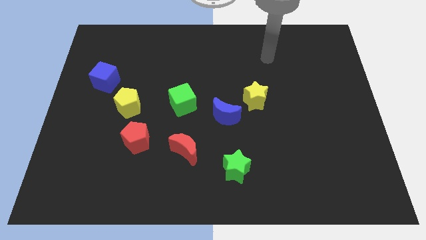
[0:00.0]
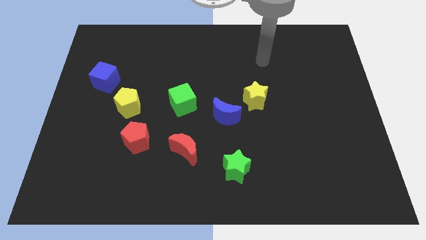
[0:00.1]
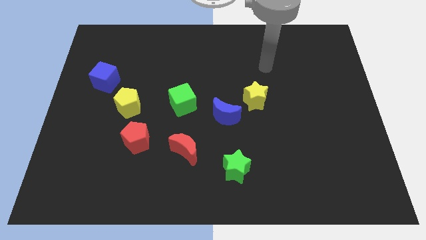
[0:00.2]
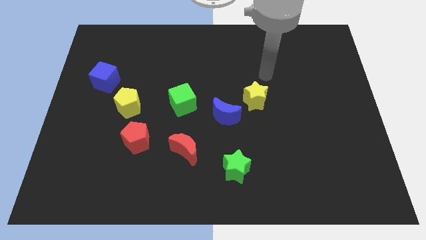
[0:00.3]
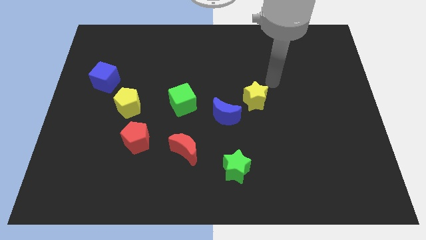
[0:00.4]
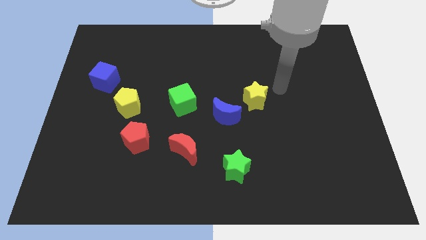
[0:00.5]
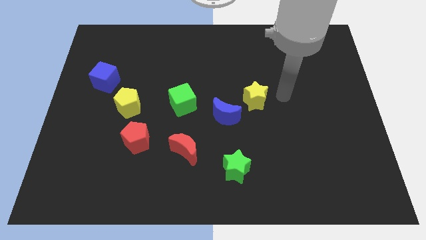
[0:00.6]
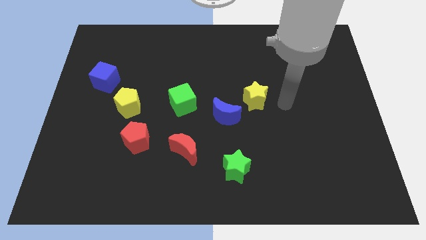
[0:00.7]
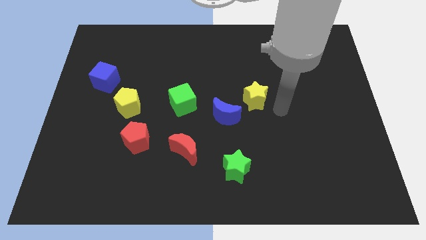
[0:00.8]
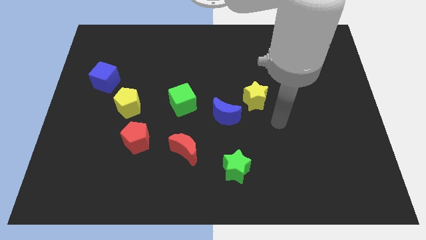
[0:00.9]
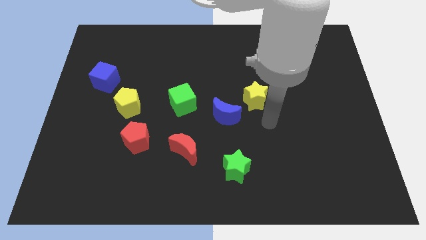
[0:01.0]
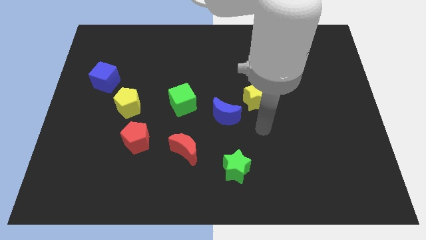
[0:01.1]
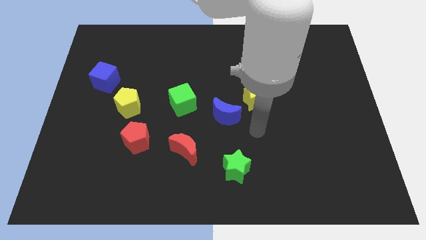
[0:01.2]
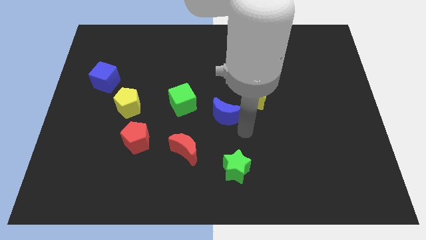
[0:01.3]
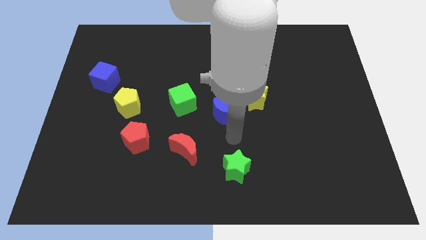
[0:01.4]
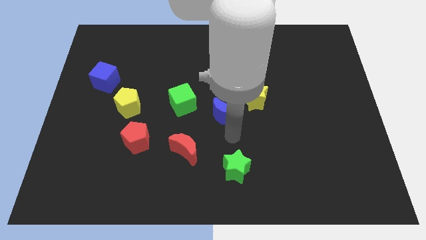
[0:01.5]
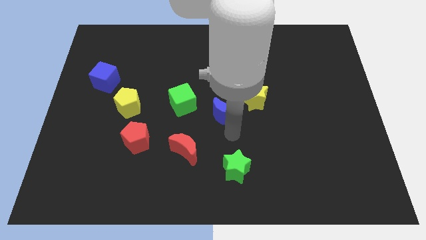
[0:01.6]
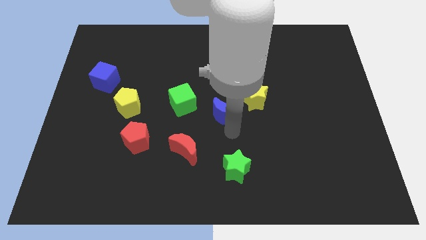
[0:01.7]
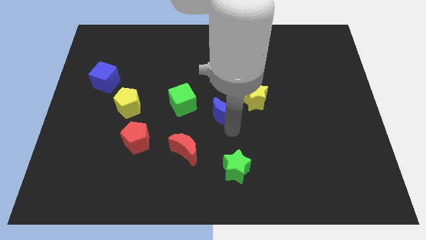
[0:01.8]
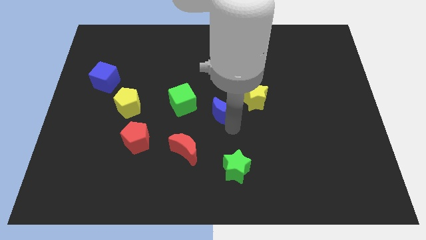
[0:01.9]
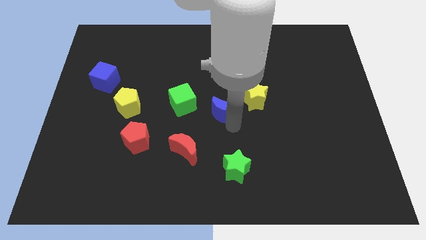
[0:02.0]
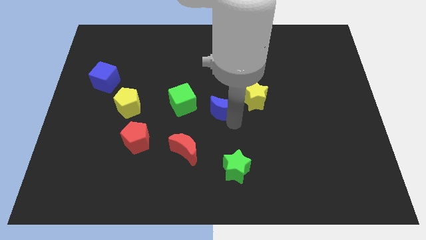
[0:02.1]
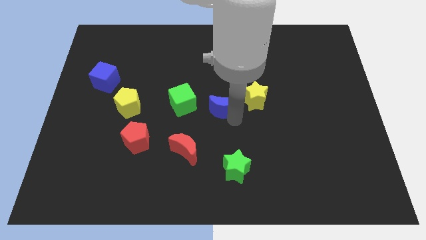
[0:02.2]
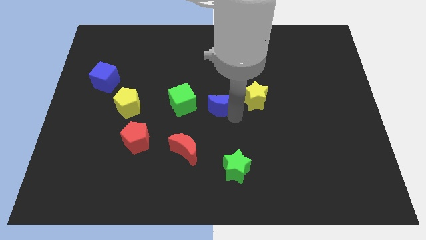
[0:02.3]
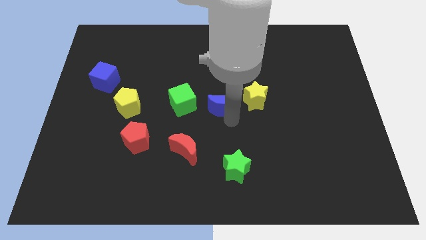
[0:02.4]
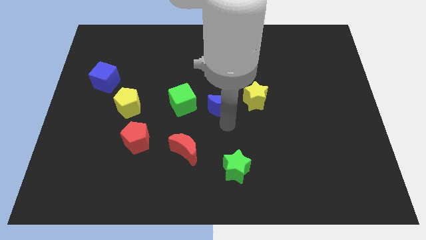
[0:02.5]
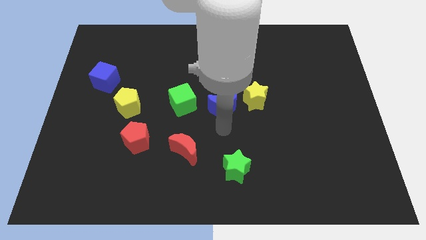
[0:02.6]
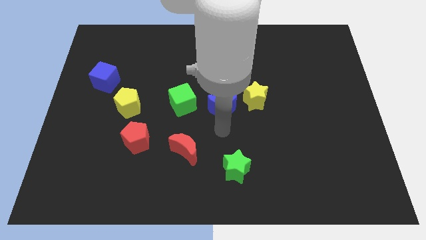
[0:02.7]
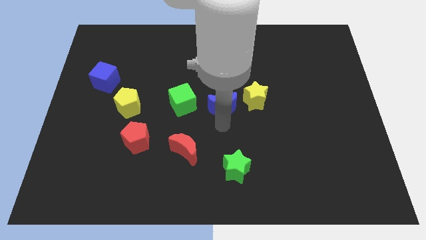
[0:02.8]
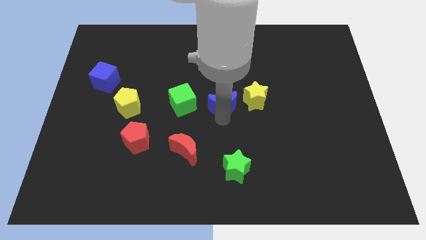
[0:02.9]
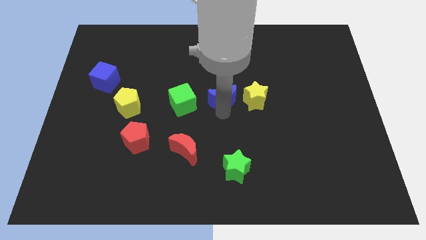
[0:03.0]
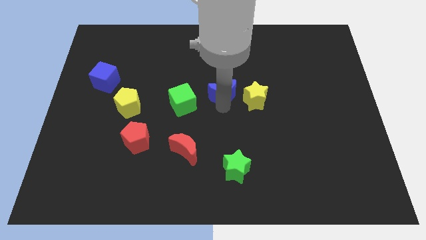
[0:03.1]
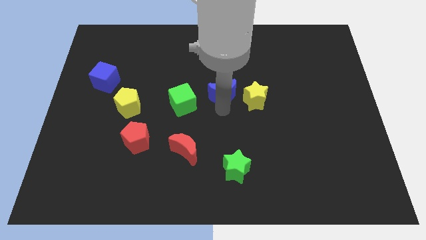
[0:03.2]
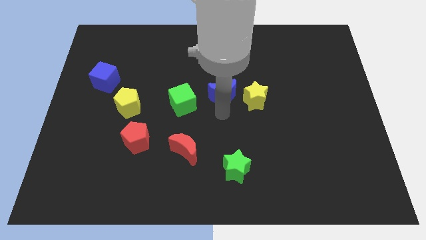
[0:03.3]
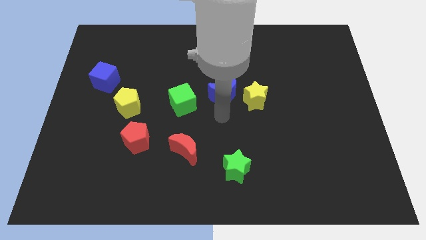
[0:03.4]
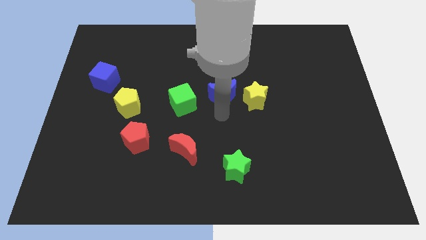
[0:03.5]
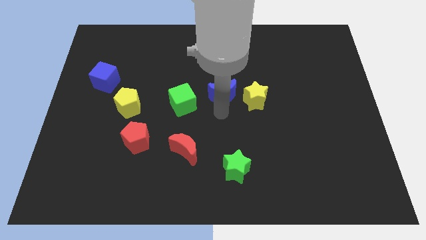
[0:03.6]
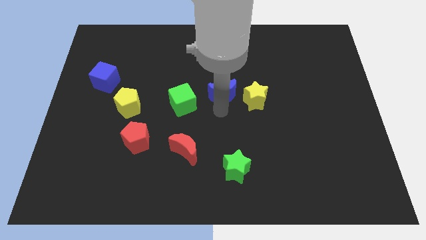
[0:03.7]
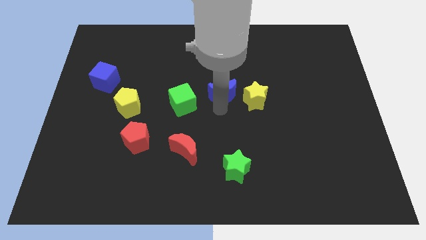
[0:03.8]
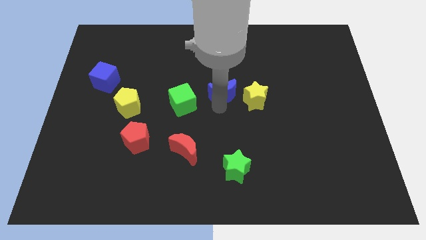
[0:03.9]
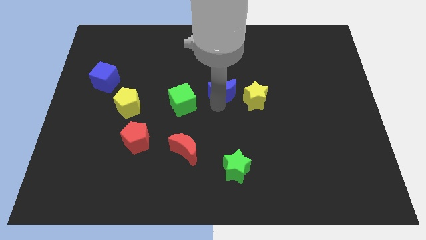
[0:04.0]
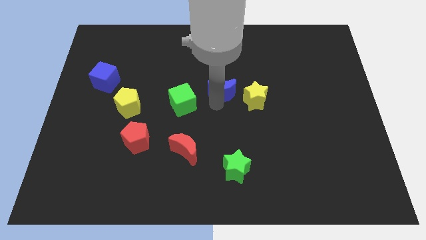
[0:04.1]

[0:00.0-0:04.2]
slightly move the blue moon up

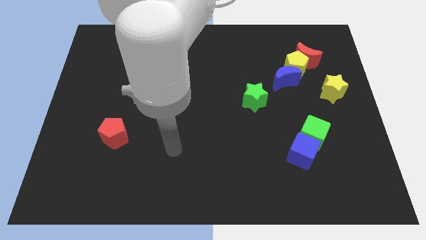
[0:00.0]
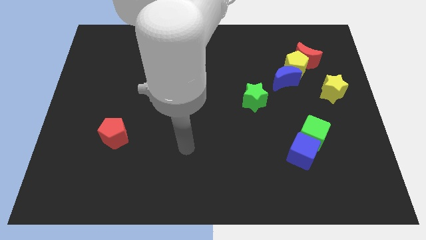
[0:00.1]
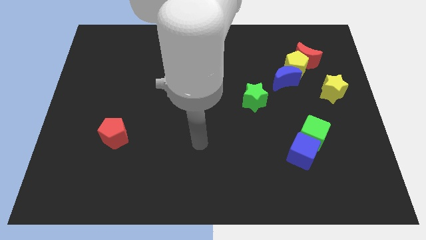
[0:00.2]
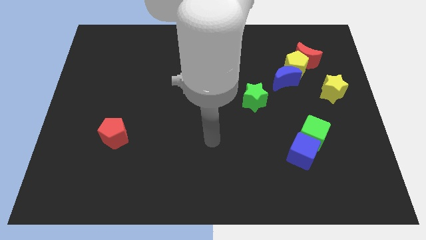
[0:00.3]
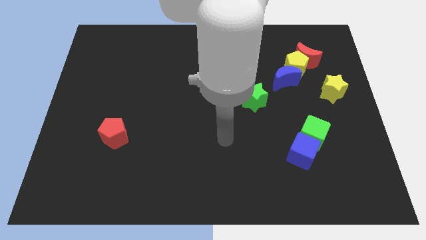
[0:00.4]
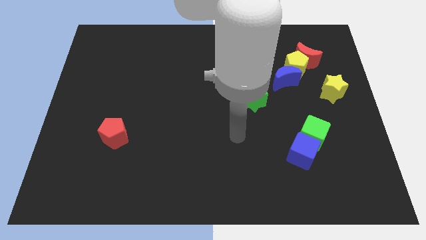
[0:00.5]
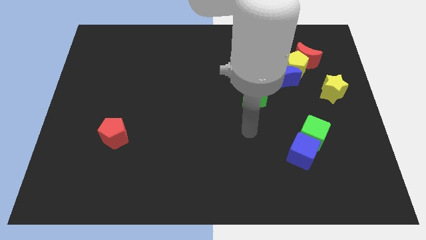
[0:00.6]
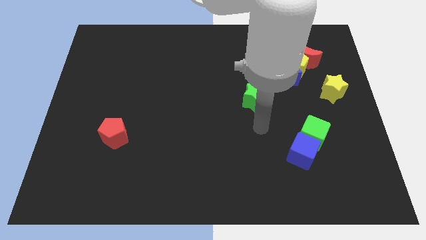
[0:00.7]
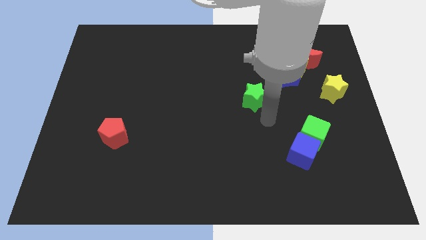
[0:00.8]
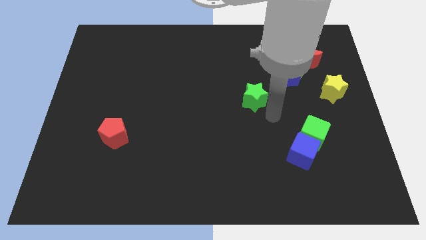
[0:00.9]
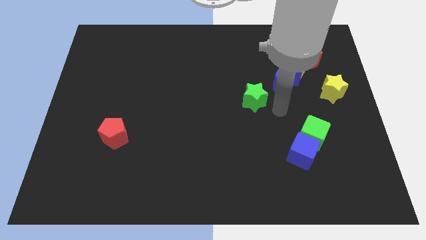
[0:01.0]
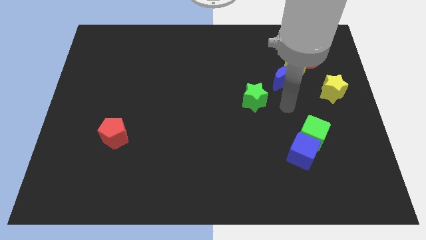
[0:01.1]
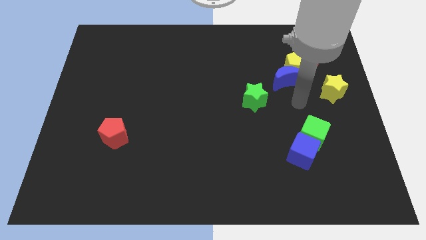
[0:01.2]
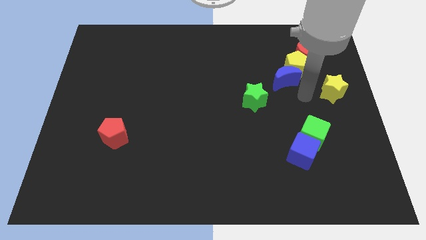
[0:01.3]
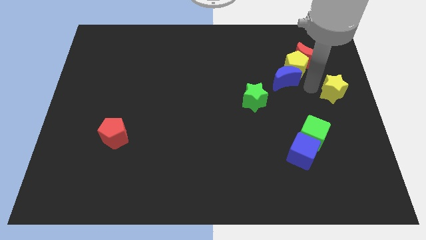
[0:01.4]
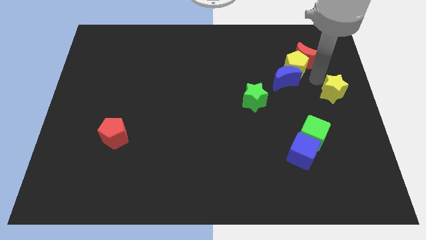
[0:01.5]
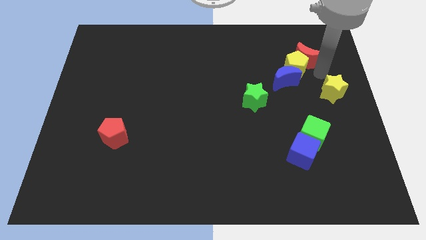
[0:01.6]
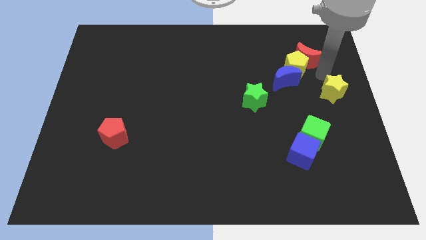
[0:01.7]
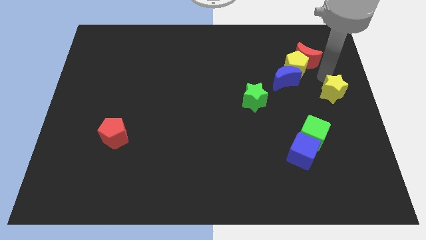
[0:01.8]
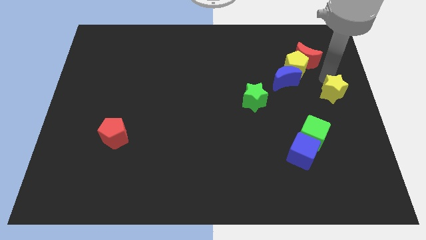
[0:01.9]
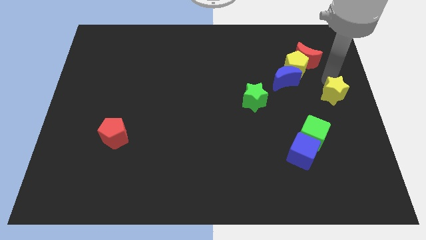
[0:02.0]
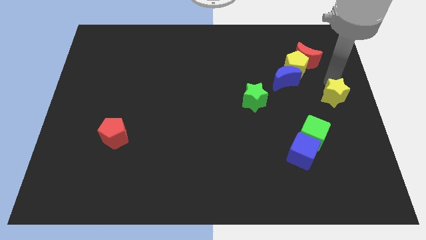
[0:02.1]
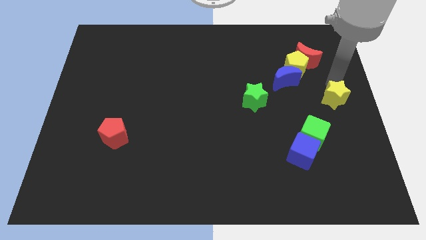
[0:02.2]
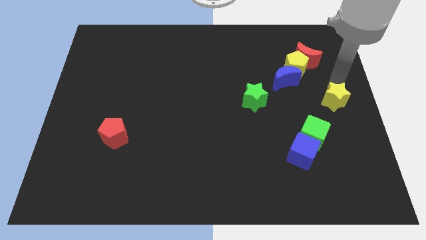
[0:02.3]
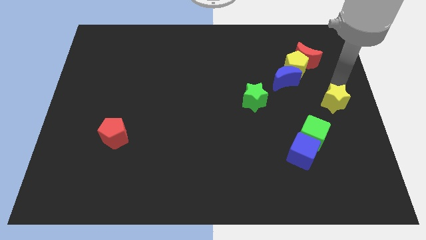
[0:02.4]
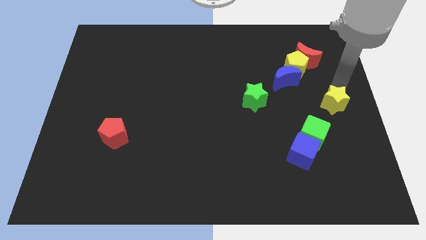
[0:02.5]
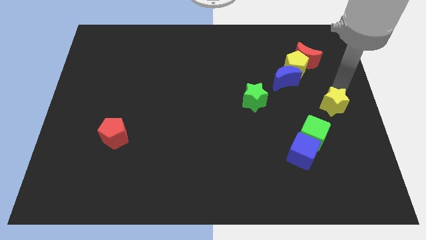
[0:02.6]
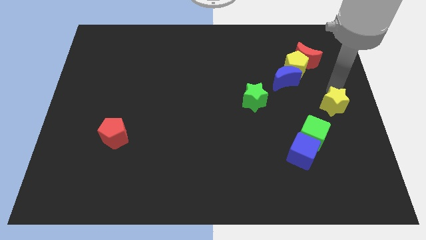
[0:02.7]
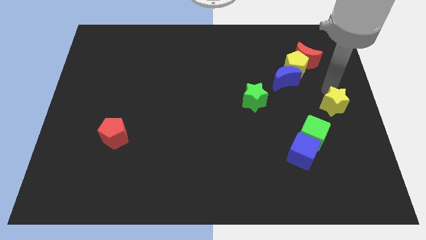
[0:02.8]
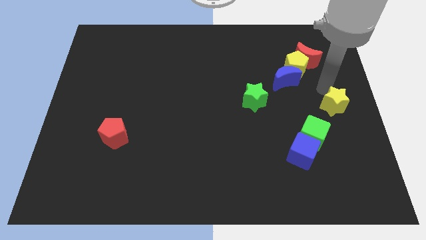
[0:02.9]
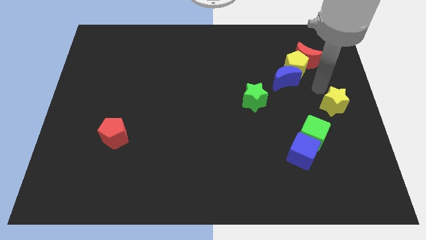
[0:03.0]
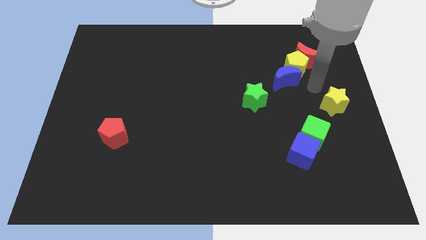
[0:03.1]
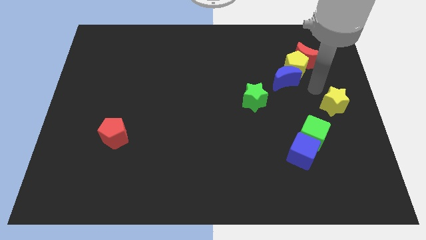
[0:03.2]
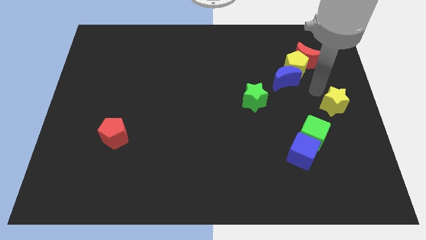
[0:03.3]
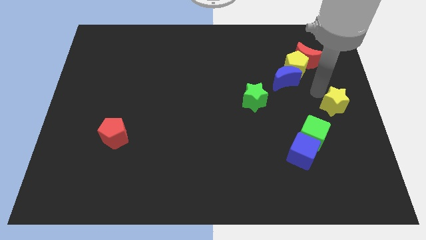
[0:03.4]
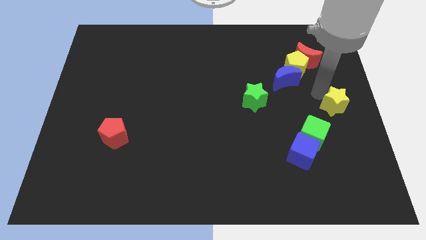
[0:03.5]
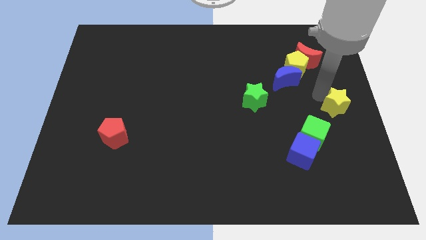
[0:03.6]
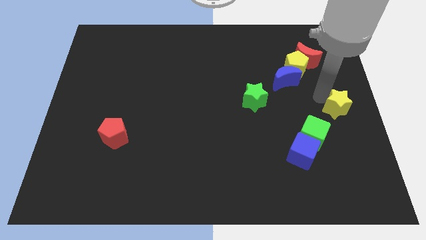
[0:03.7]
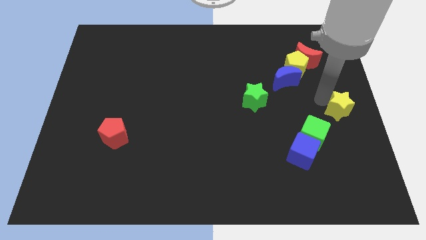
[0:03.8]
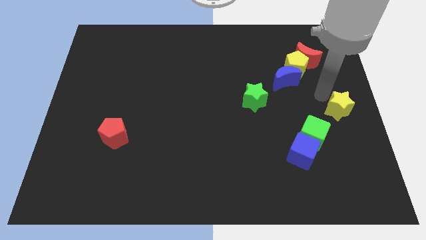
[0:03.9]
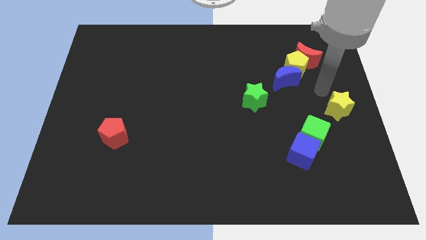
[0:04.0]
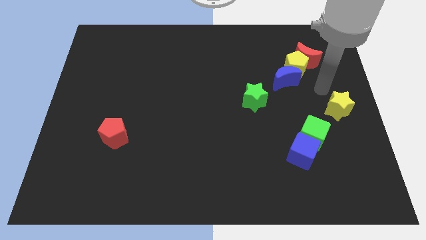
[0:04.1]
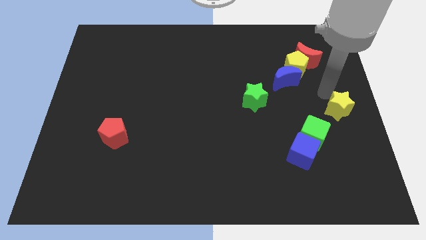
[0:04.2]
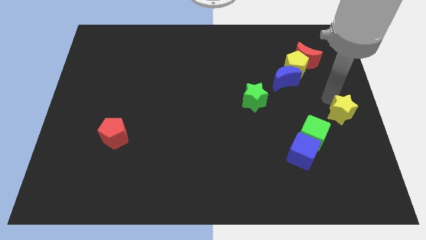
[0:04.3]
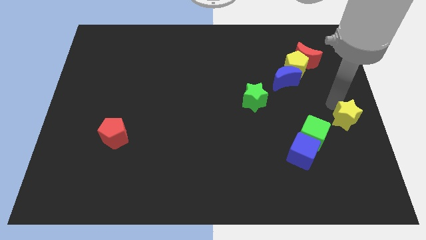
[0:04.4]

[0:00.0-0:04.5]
slide the yellow star down a bit
